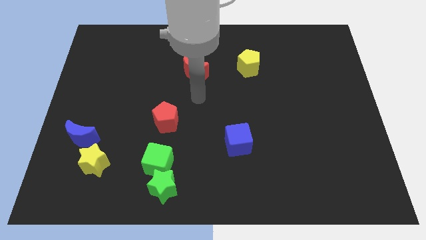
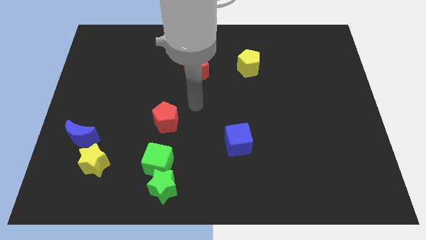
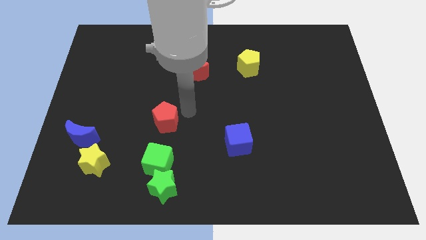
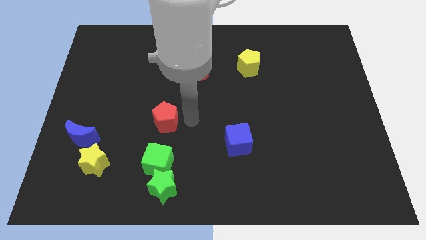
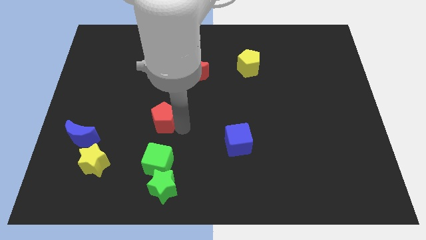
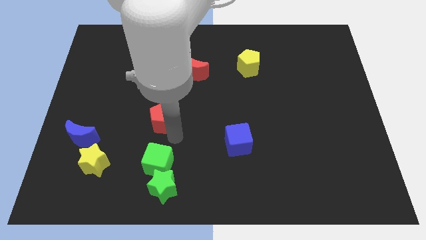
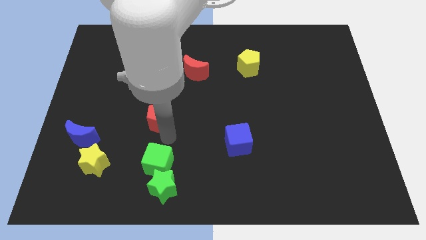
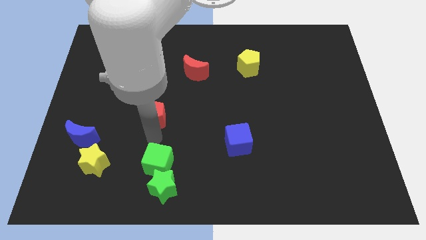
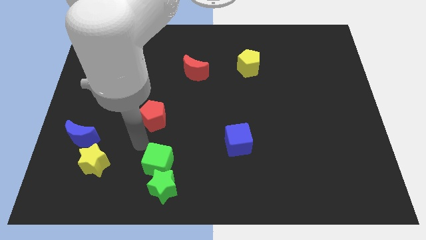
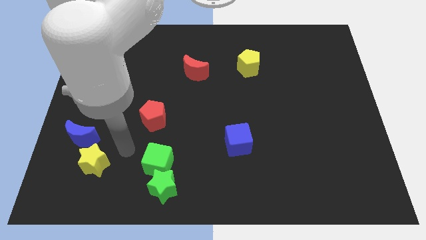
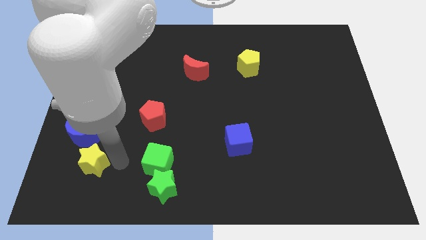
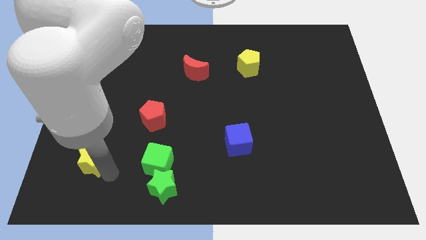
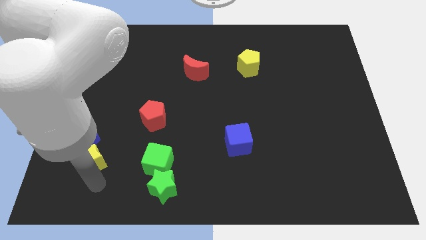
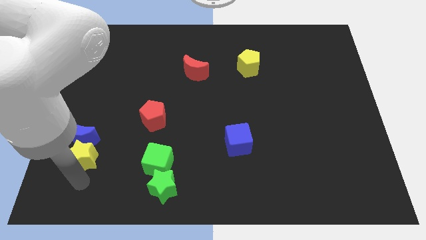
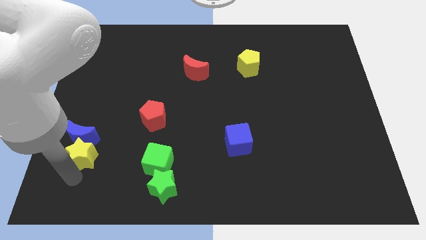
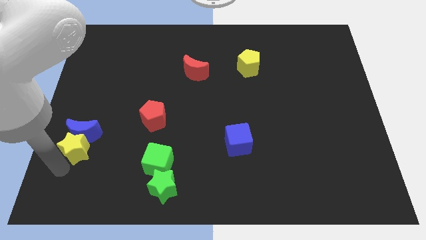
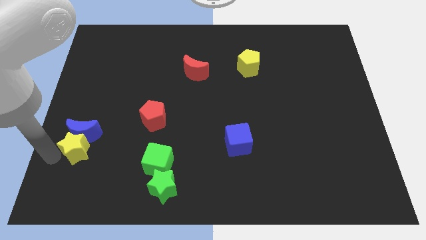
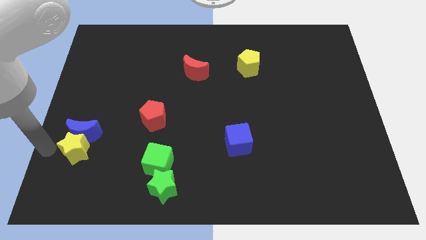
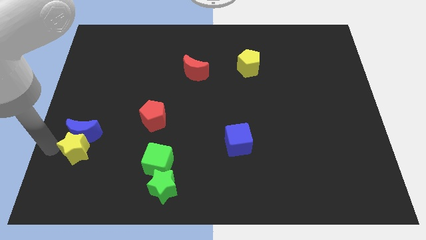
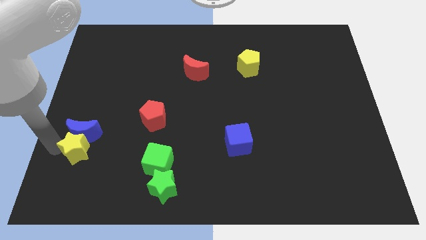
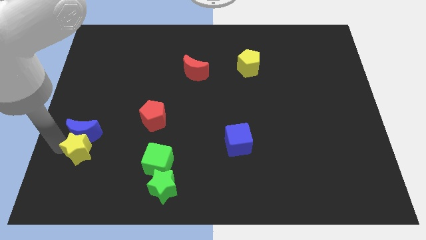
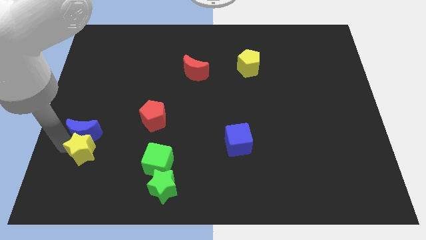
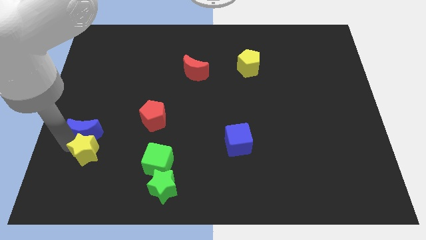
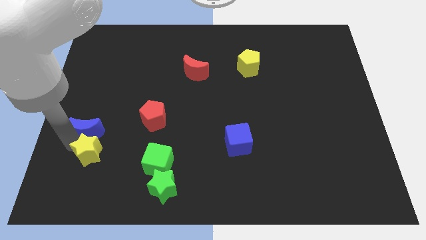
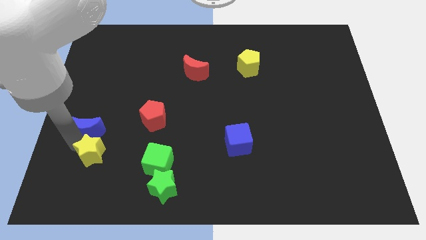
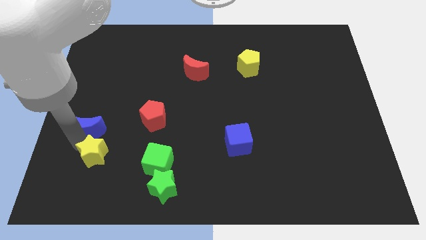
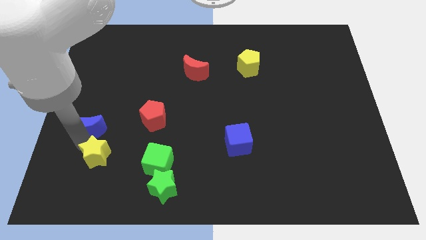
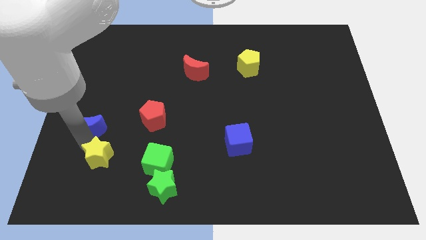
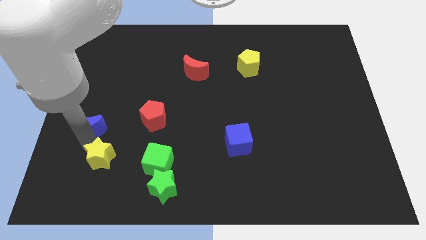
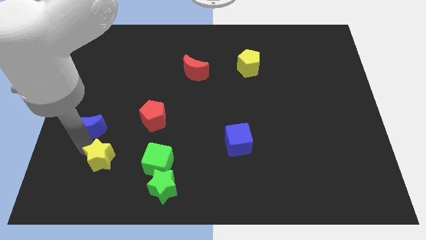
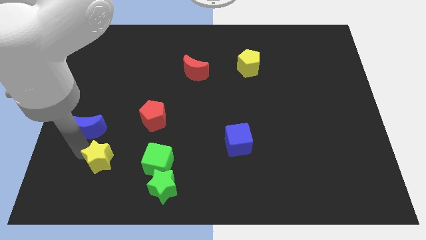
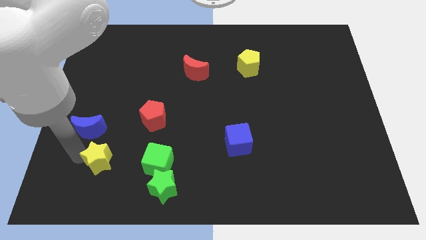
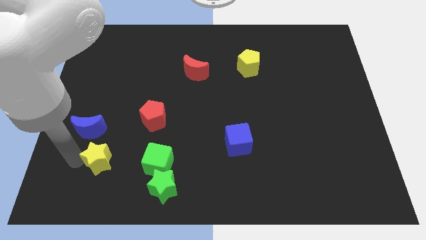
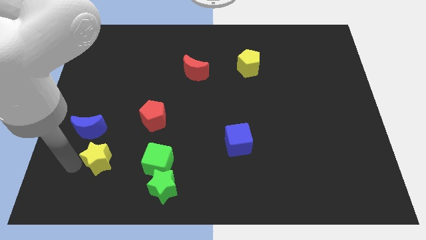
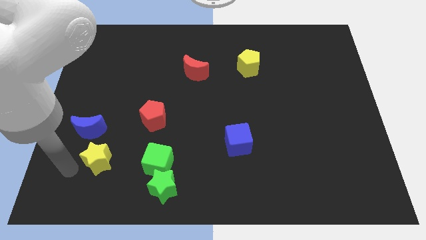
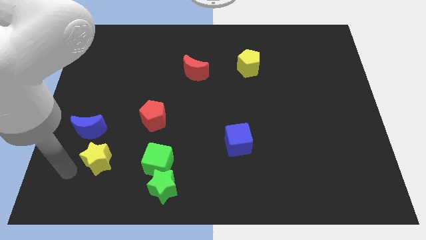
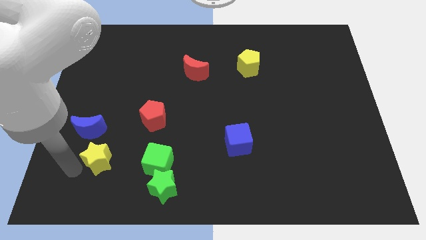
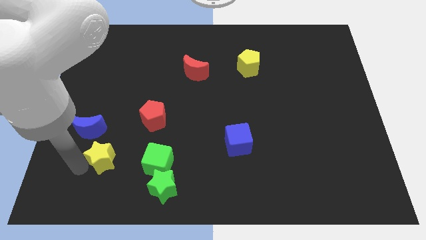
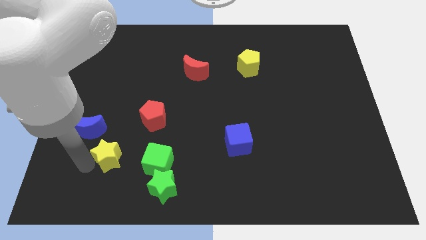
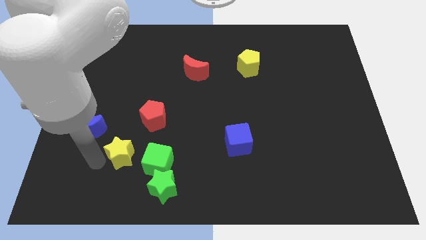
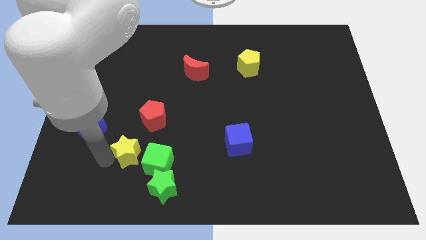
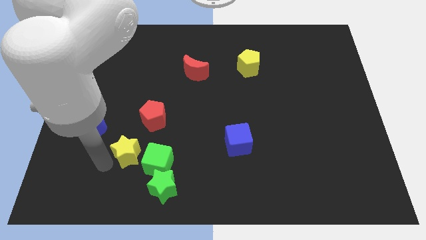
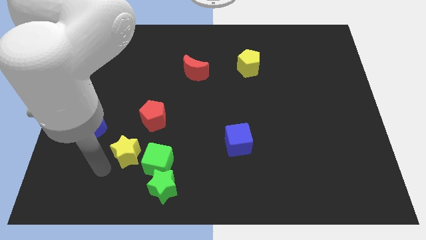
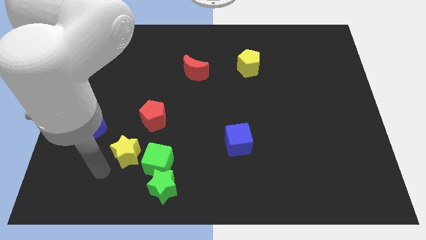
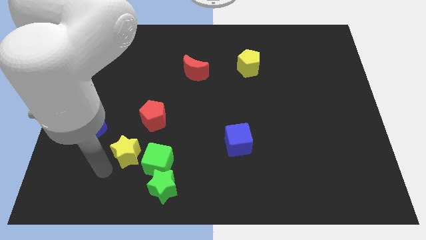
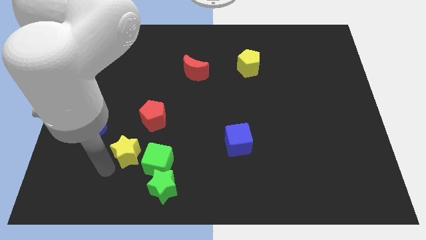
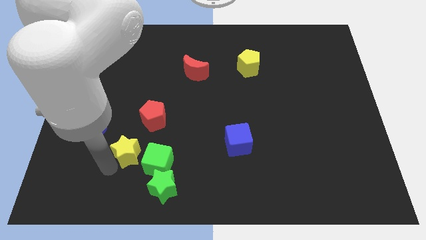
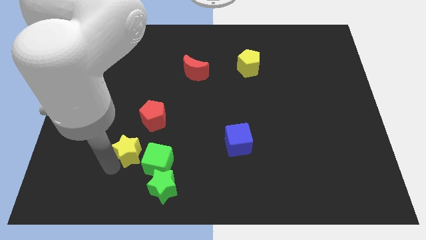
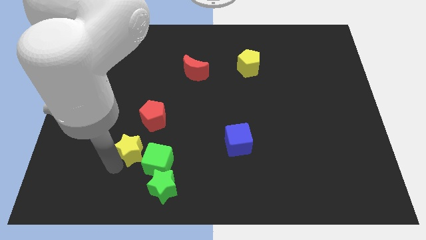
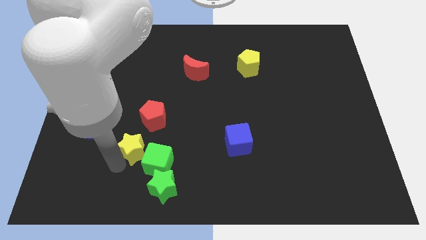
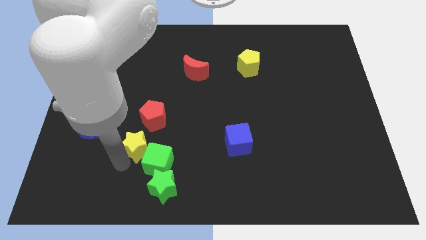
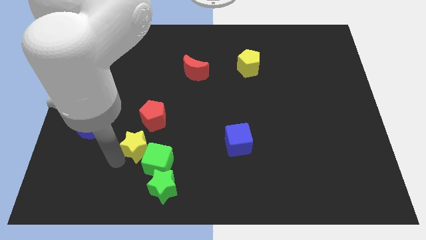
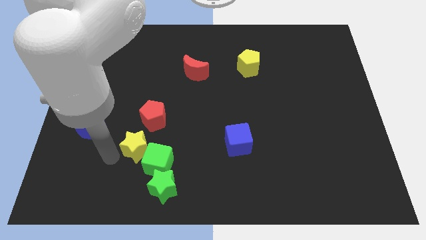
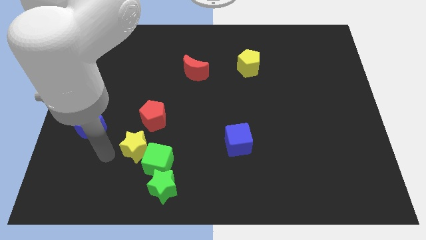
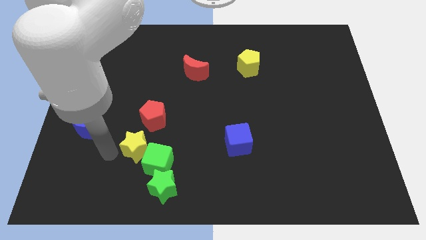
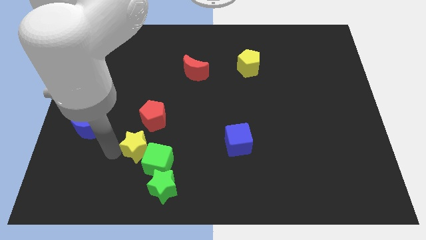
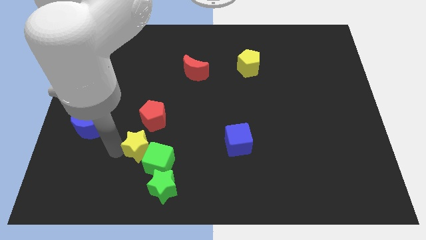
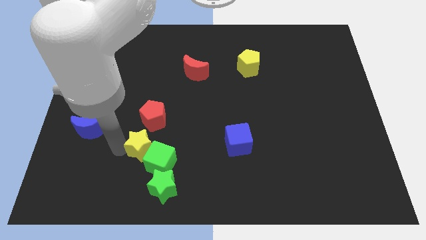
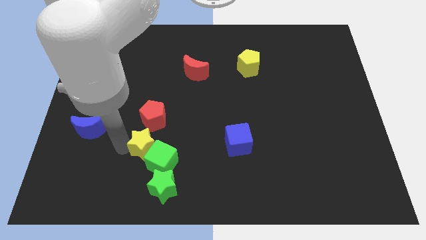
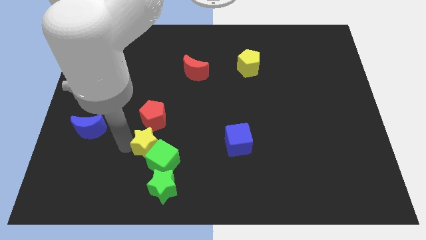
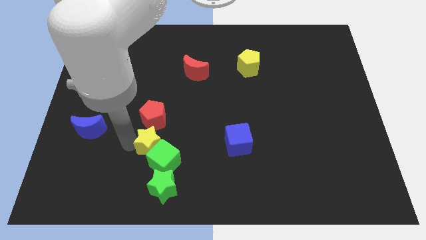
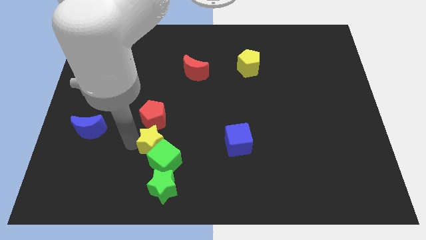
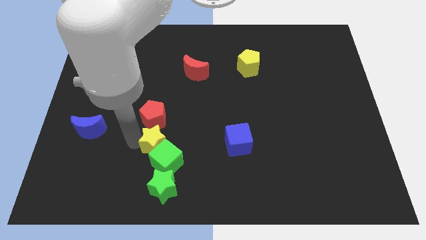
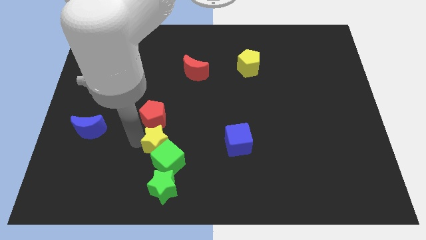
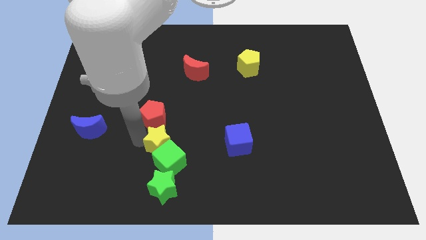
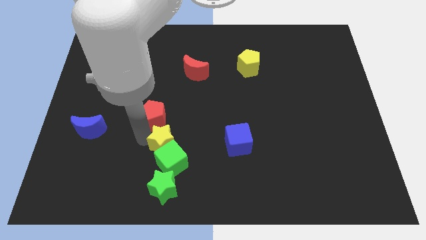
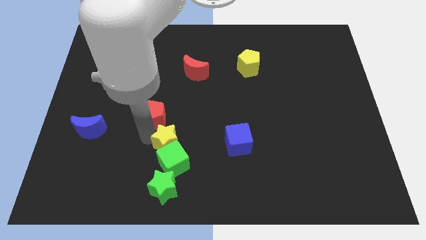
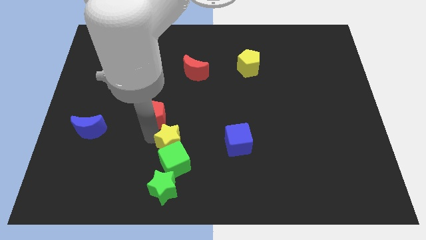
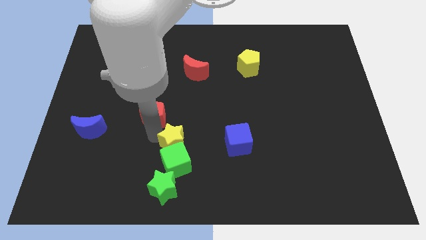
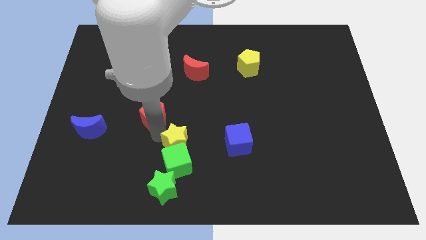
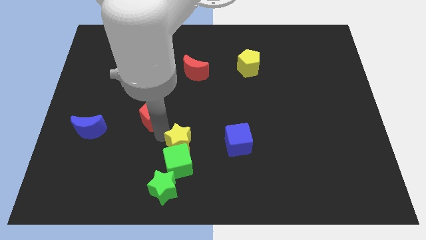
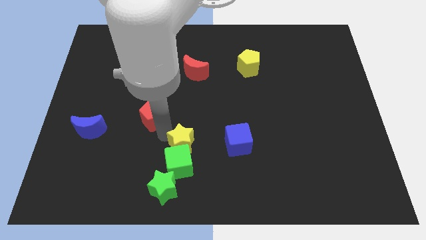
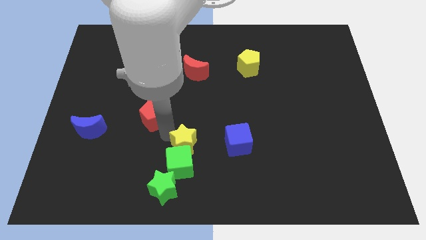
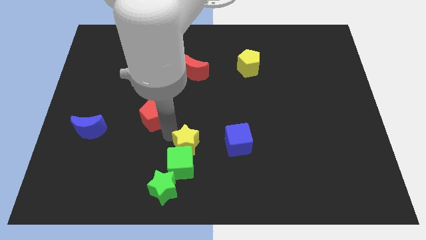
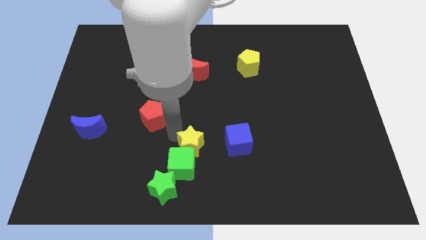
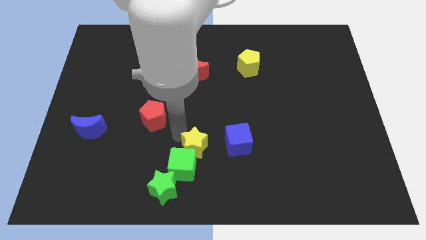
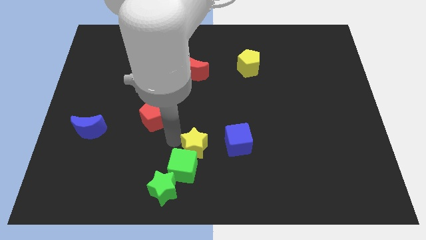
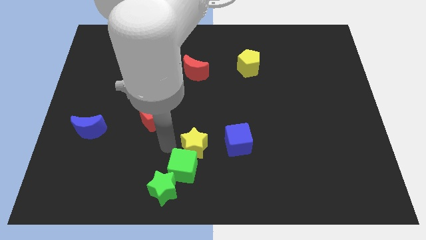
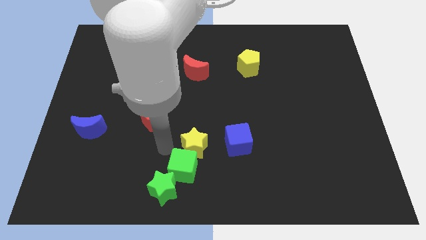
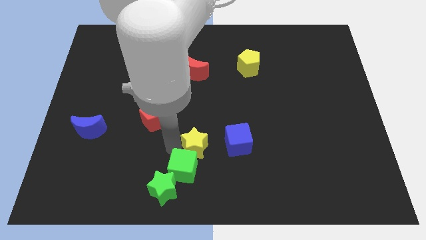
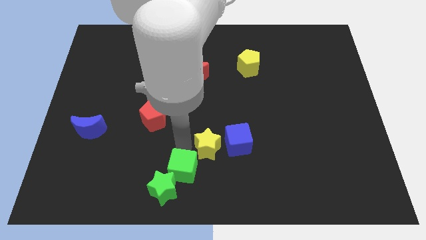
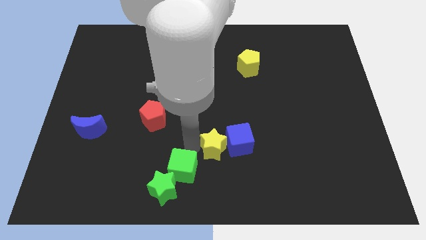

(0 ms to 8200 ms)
slide the yellow star next to the blue cube
